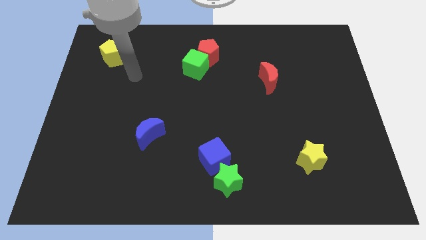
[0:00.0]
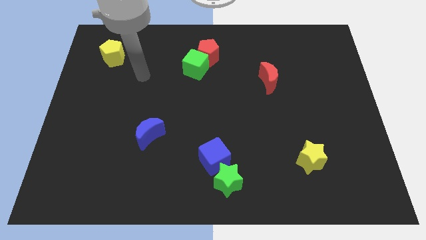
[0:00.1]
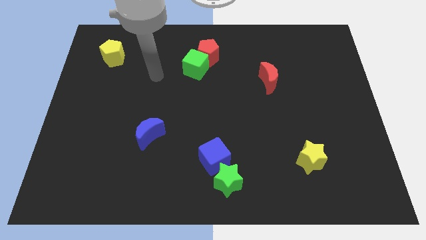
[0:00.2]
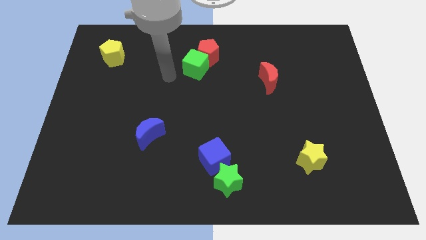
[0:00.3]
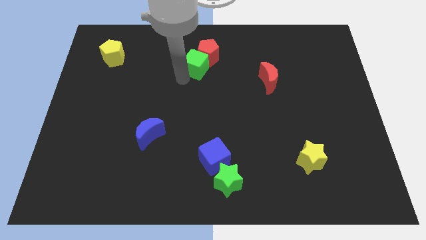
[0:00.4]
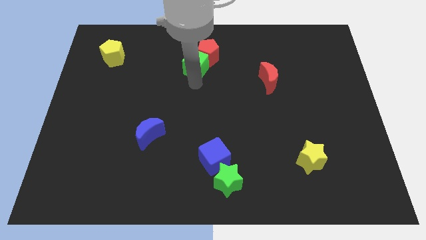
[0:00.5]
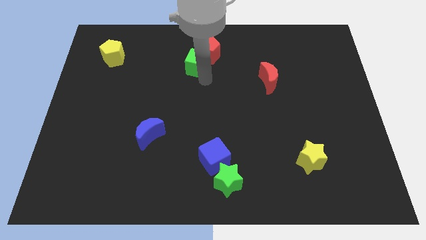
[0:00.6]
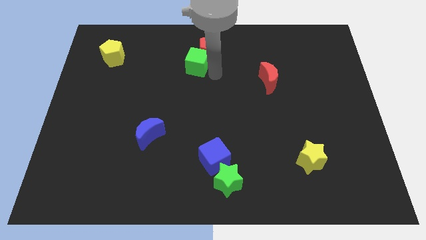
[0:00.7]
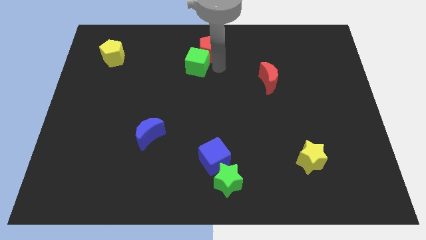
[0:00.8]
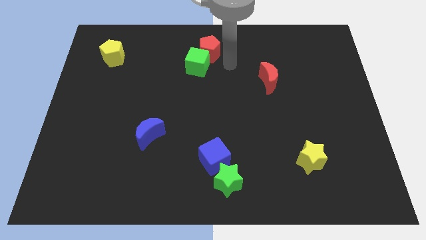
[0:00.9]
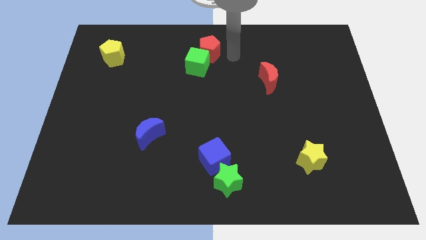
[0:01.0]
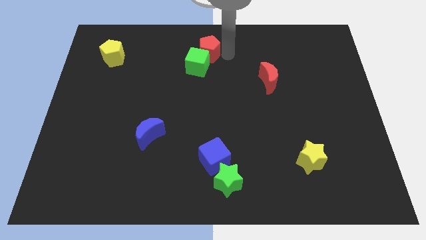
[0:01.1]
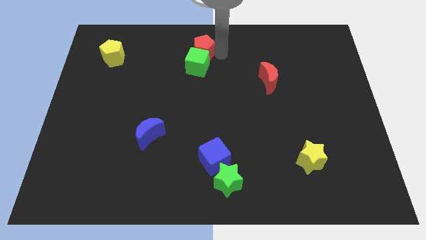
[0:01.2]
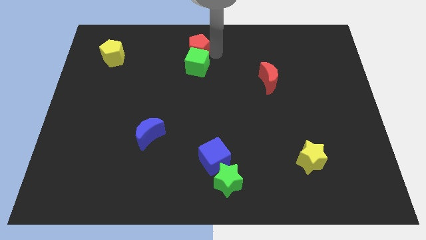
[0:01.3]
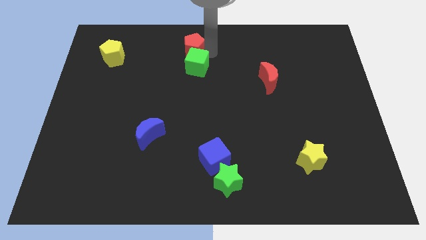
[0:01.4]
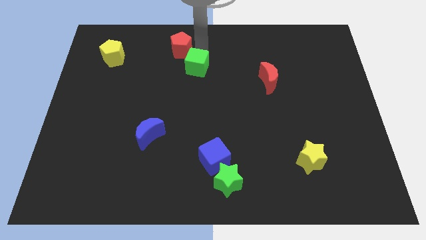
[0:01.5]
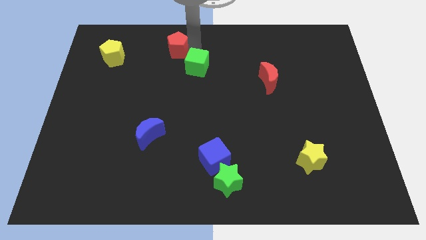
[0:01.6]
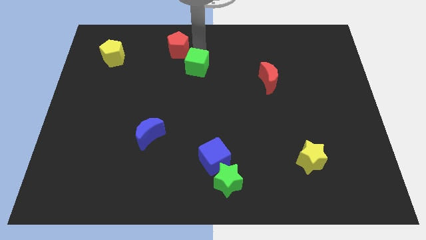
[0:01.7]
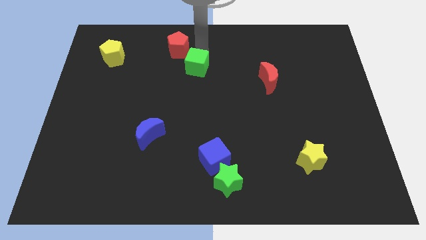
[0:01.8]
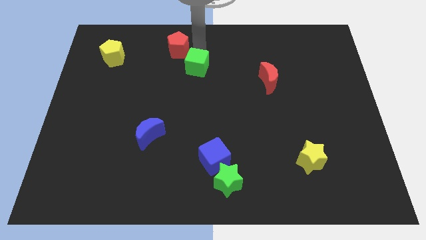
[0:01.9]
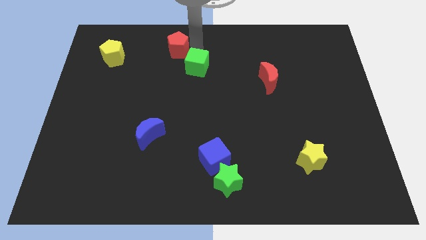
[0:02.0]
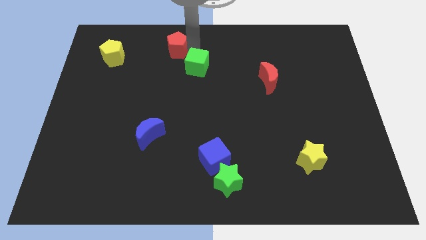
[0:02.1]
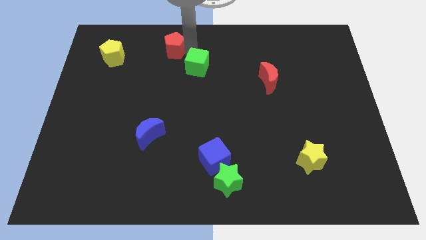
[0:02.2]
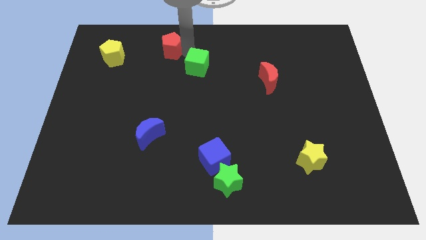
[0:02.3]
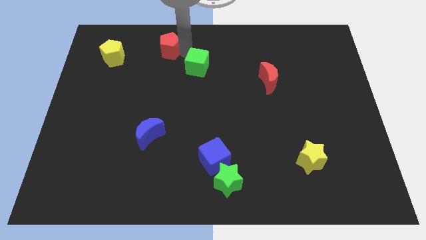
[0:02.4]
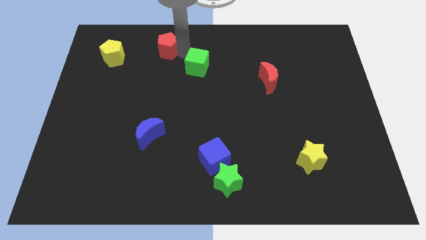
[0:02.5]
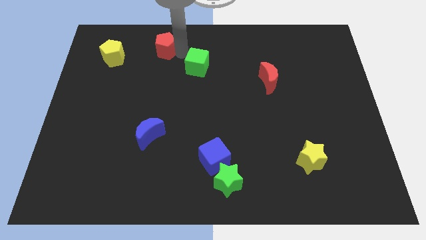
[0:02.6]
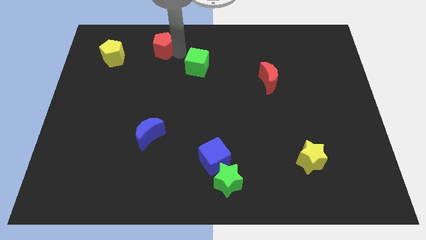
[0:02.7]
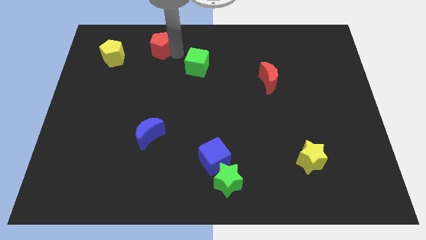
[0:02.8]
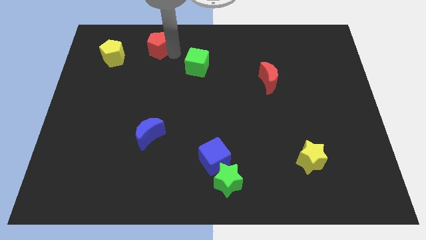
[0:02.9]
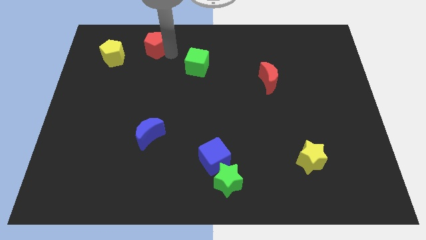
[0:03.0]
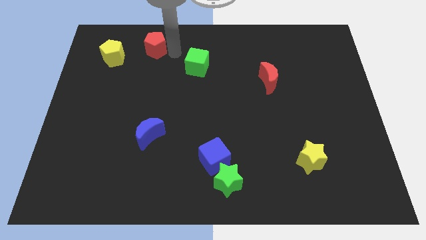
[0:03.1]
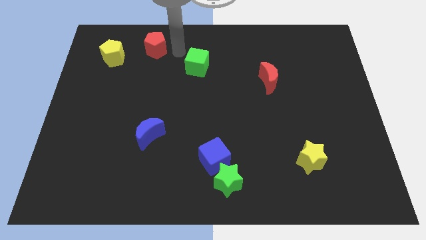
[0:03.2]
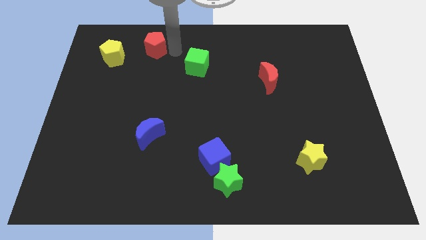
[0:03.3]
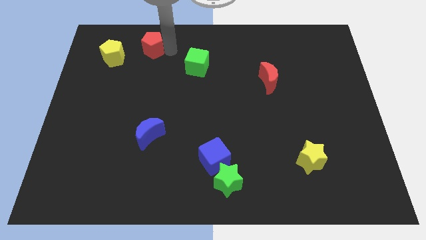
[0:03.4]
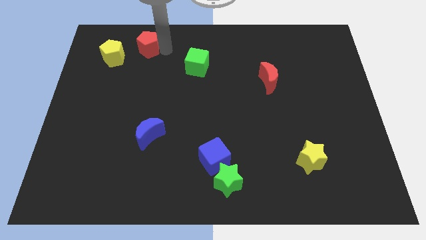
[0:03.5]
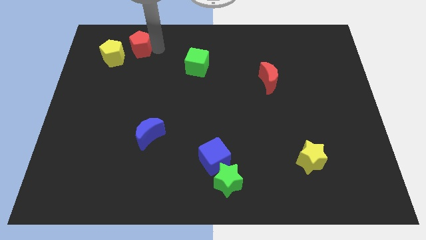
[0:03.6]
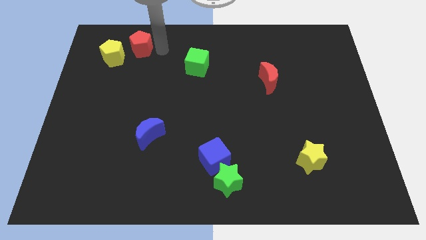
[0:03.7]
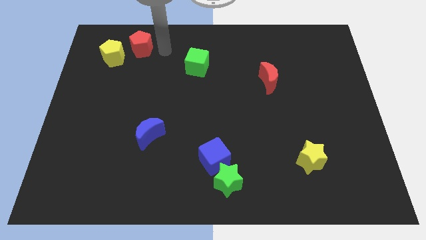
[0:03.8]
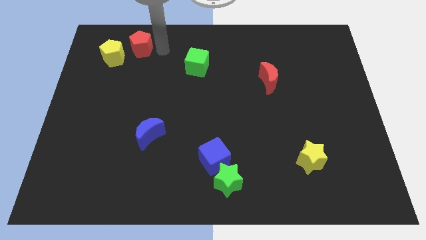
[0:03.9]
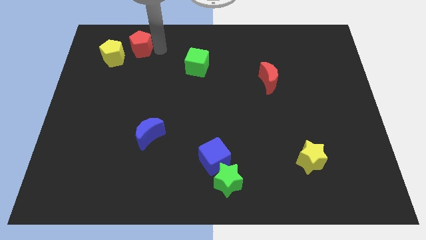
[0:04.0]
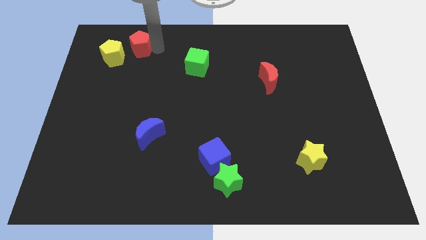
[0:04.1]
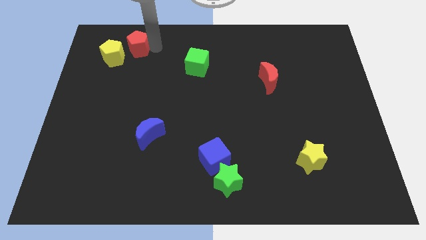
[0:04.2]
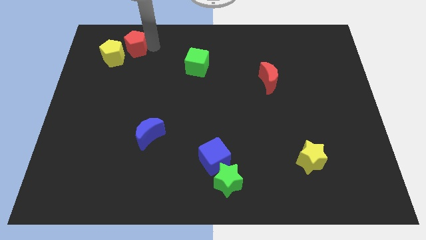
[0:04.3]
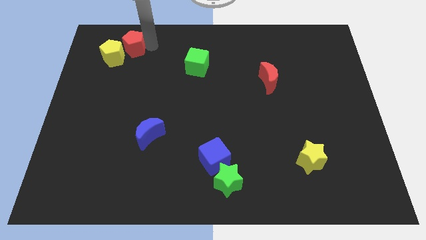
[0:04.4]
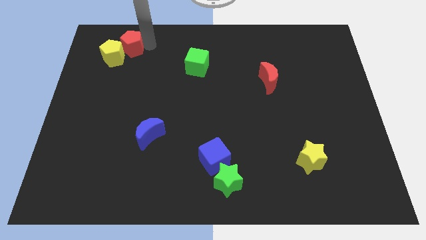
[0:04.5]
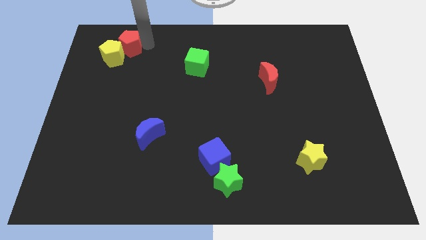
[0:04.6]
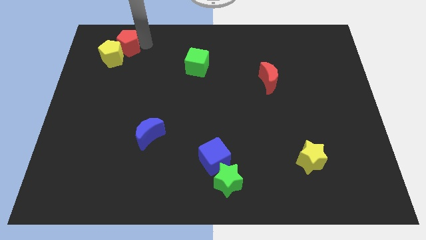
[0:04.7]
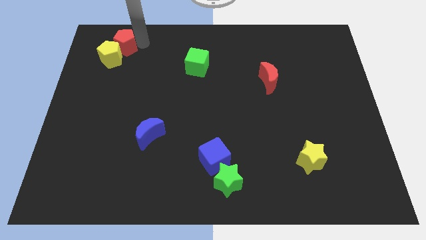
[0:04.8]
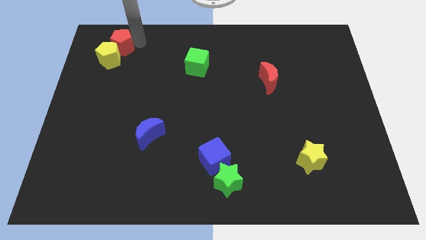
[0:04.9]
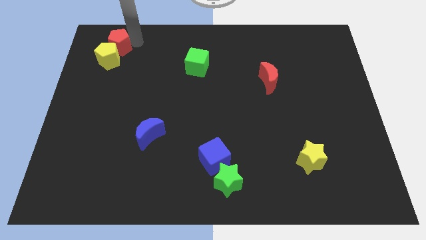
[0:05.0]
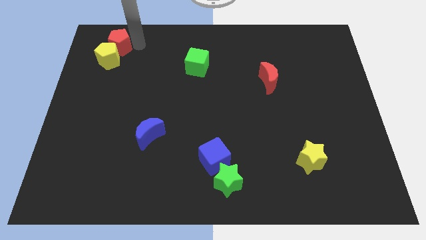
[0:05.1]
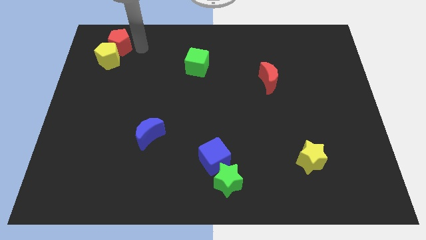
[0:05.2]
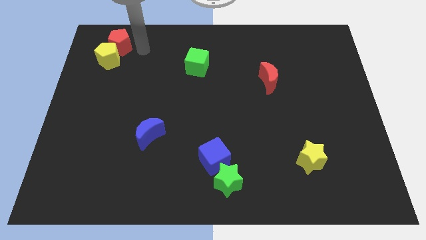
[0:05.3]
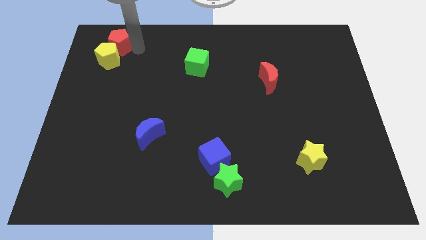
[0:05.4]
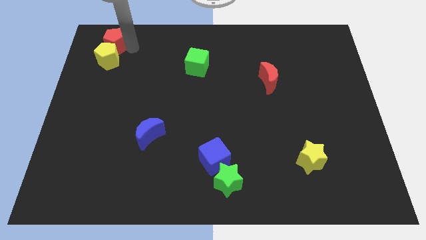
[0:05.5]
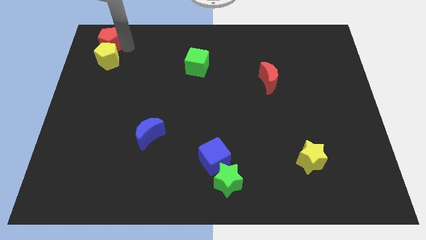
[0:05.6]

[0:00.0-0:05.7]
move the red pentagon to the top left corner

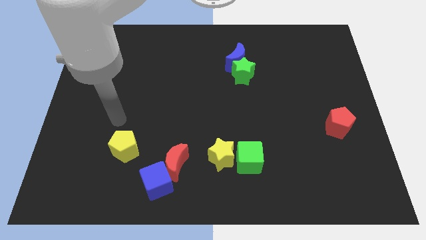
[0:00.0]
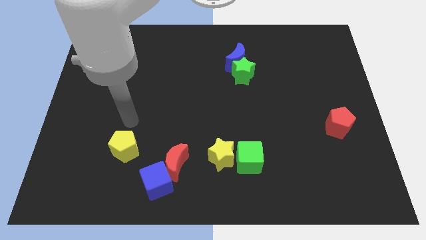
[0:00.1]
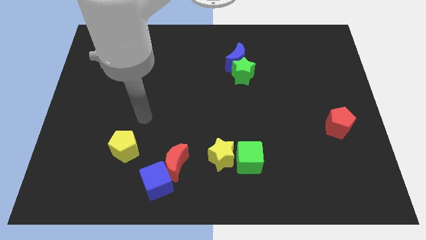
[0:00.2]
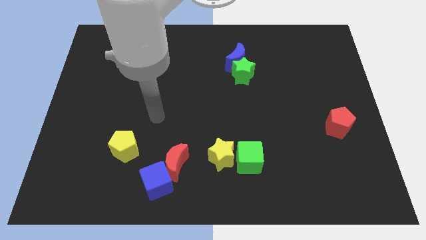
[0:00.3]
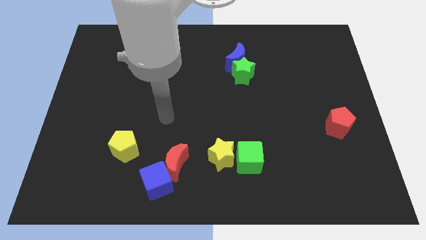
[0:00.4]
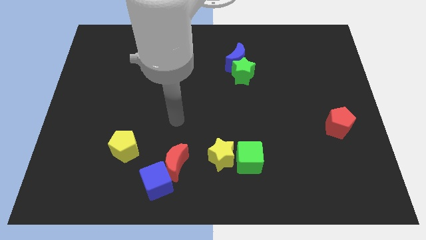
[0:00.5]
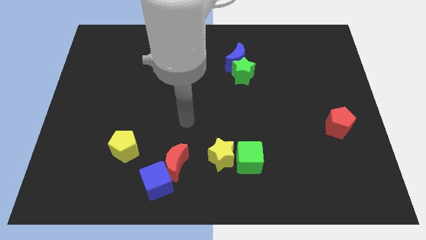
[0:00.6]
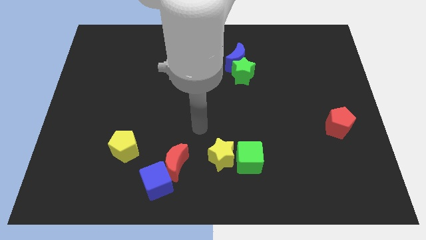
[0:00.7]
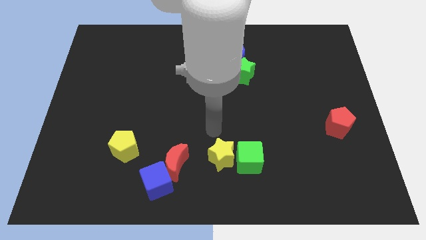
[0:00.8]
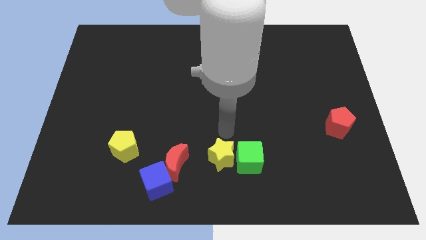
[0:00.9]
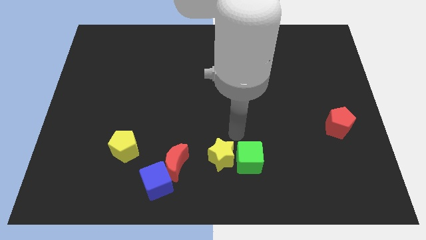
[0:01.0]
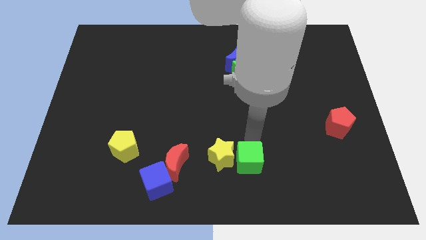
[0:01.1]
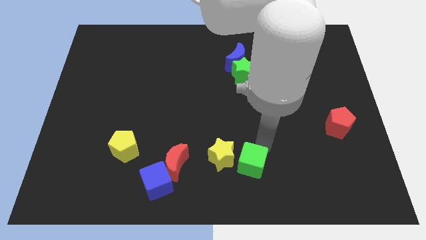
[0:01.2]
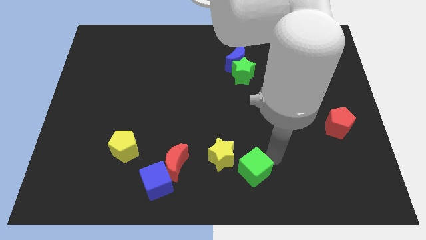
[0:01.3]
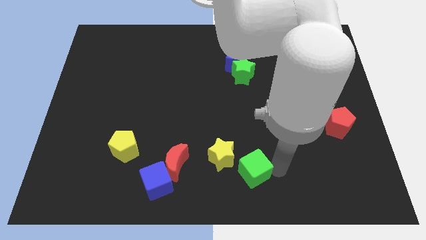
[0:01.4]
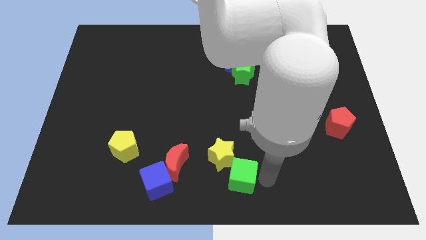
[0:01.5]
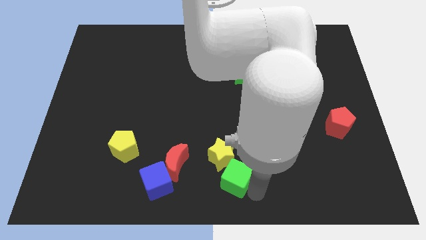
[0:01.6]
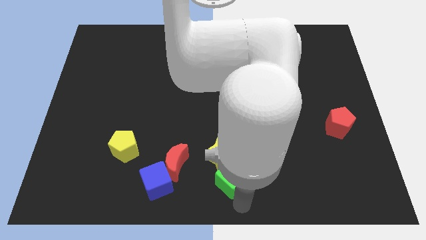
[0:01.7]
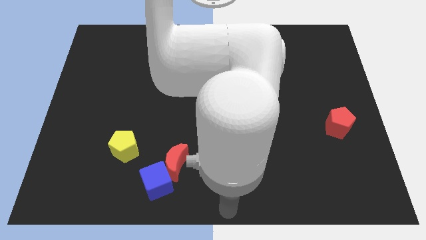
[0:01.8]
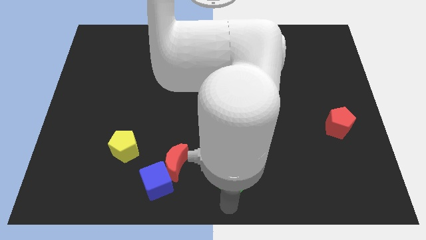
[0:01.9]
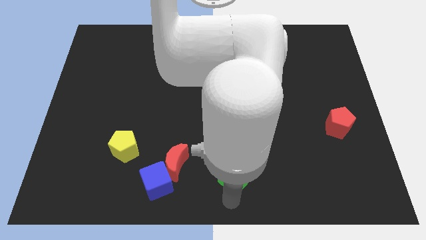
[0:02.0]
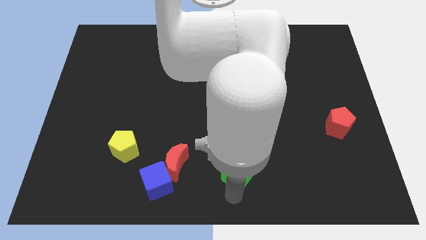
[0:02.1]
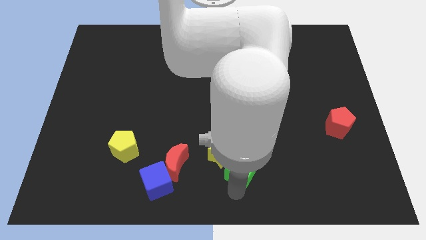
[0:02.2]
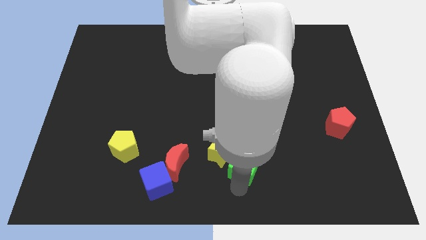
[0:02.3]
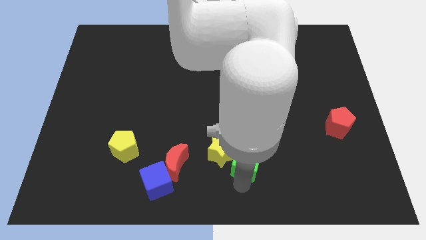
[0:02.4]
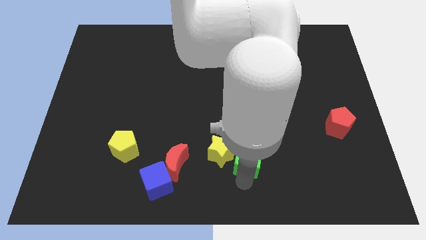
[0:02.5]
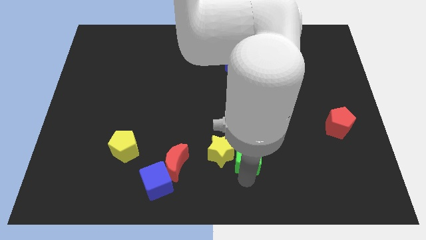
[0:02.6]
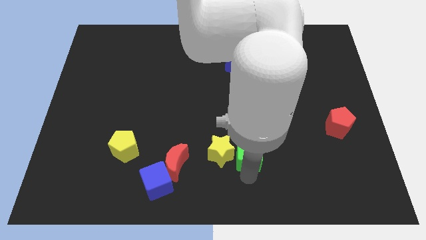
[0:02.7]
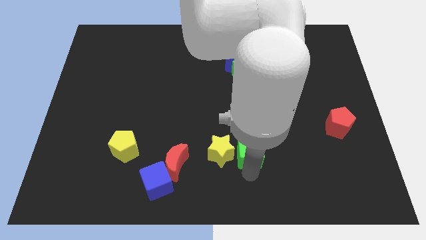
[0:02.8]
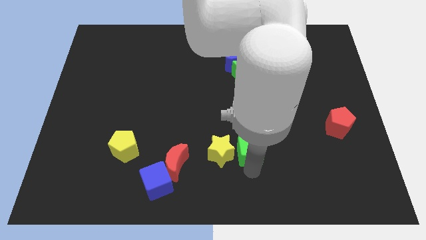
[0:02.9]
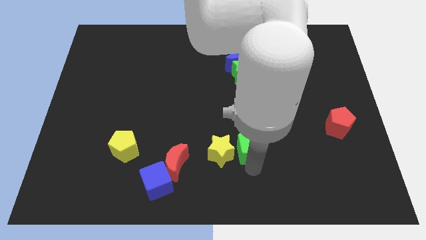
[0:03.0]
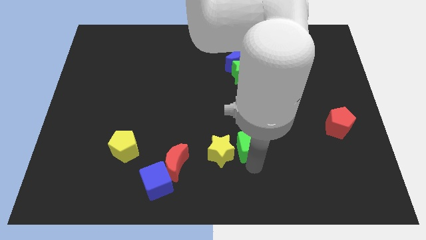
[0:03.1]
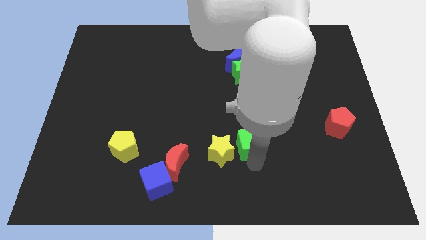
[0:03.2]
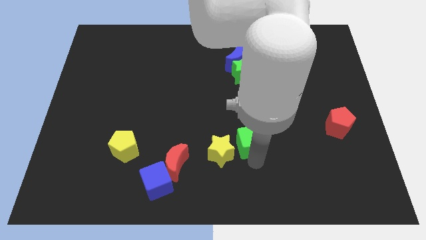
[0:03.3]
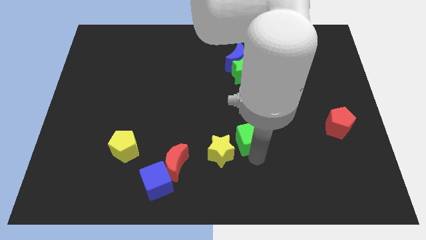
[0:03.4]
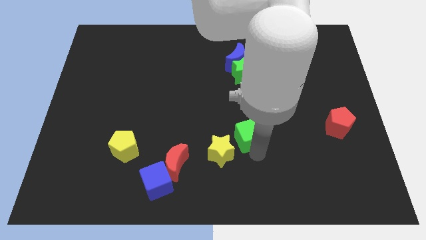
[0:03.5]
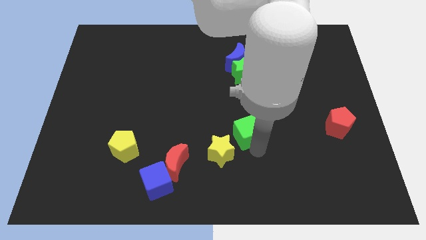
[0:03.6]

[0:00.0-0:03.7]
slide the green cube to the middle of the board
